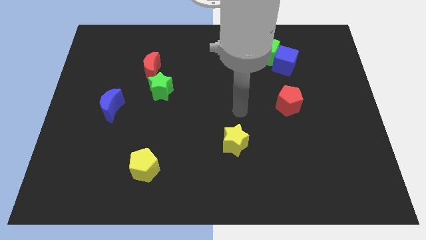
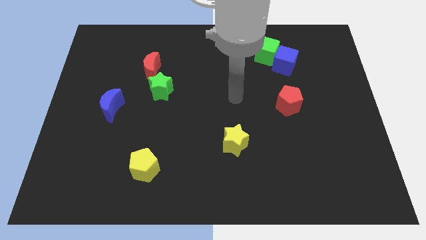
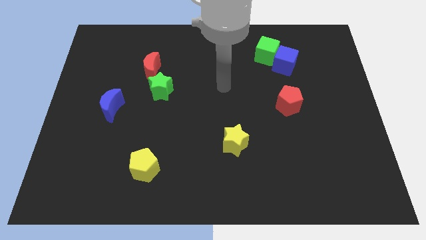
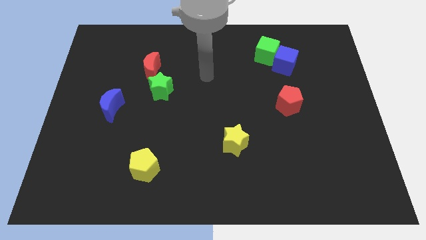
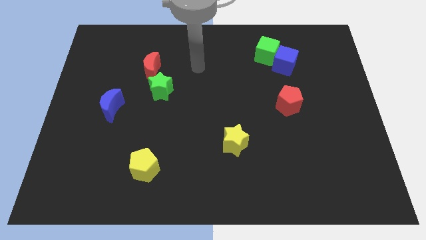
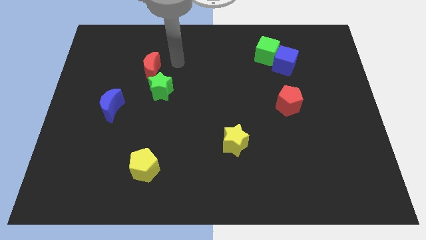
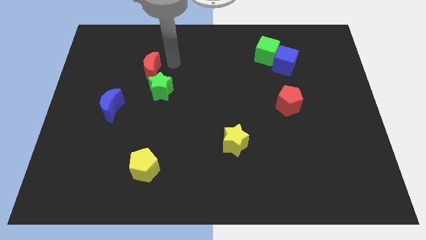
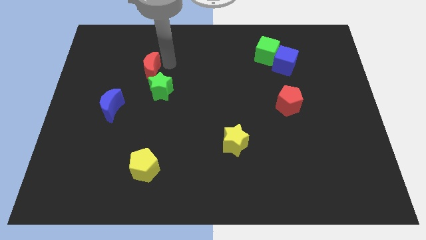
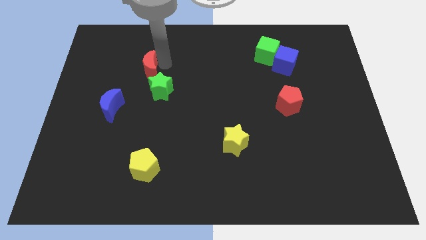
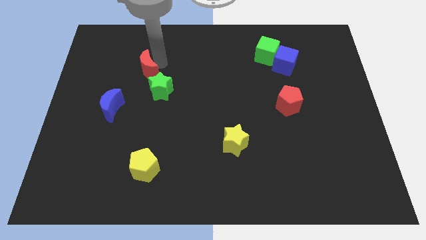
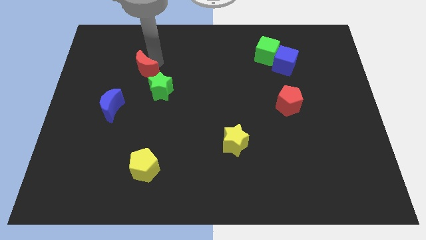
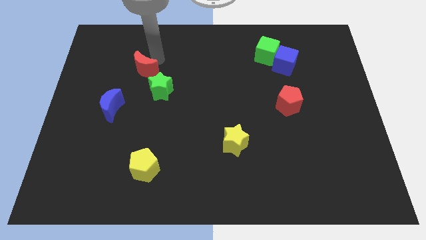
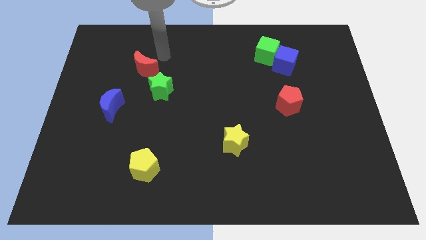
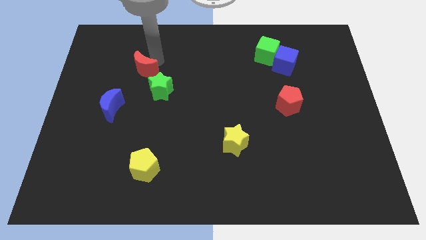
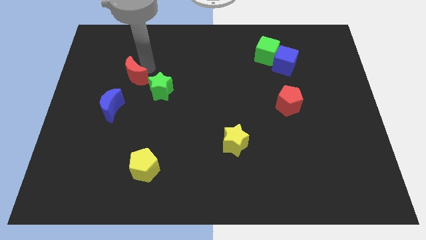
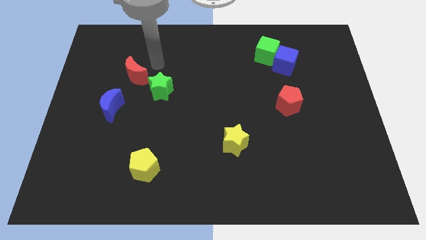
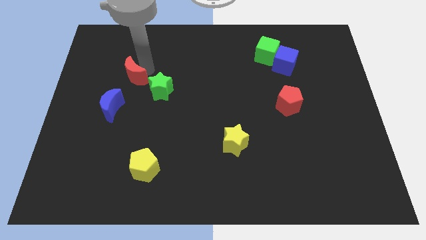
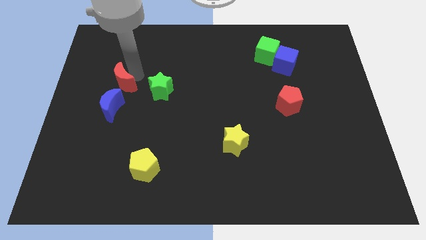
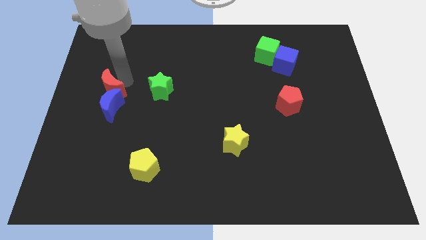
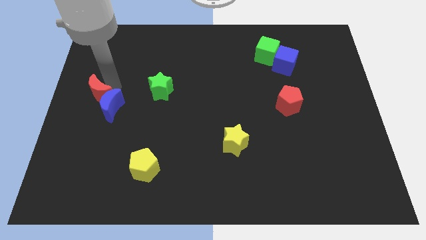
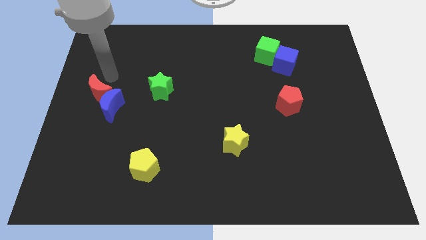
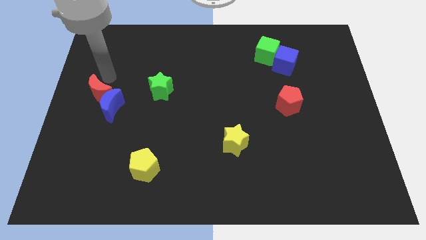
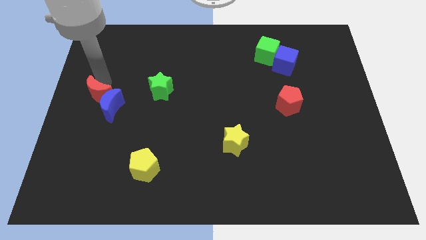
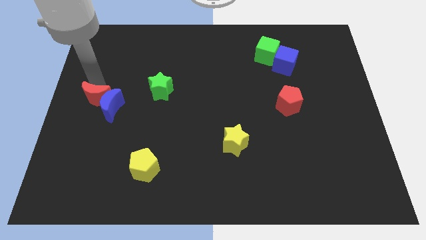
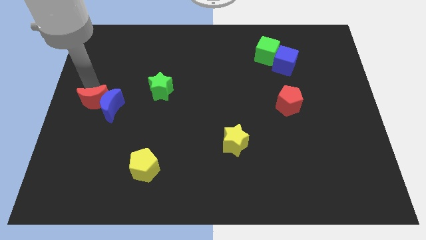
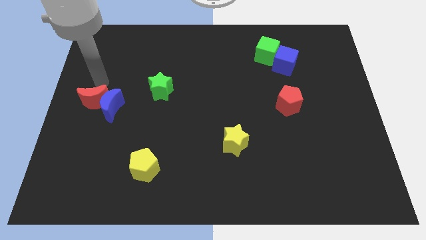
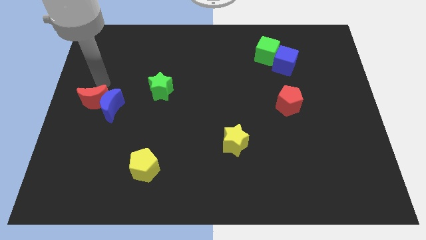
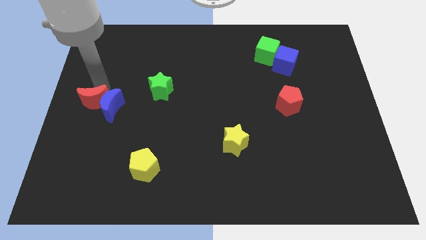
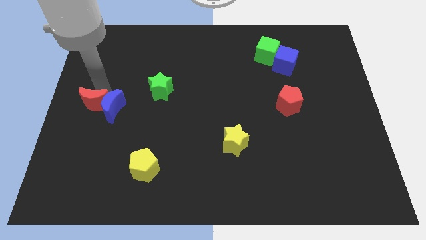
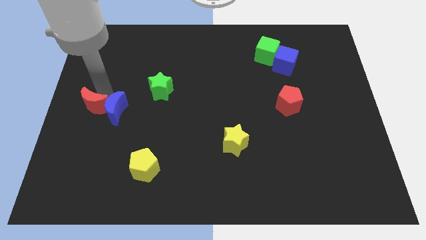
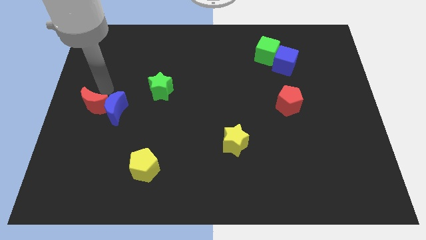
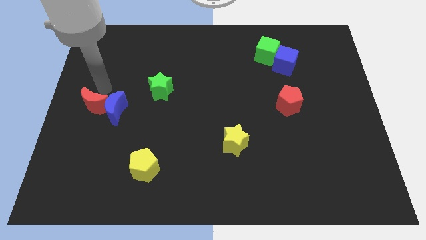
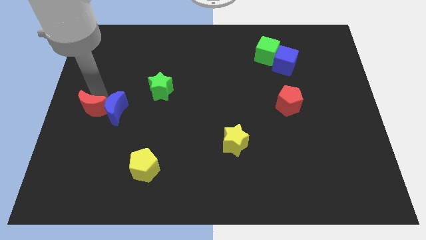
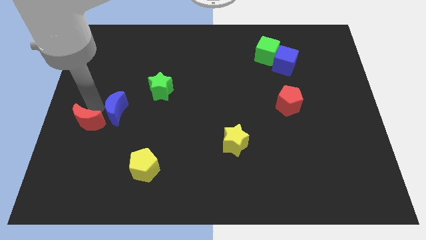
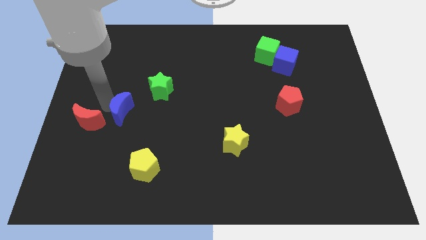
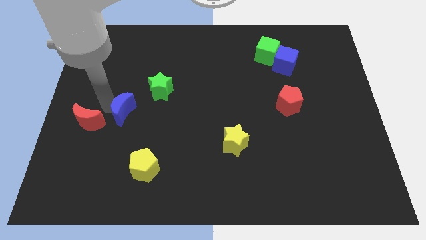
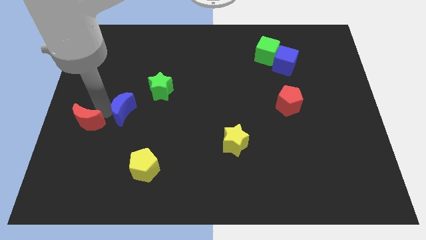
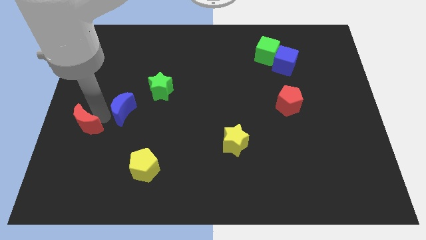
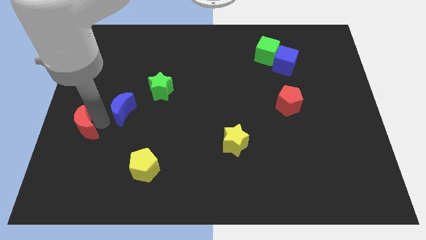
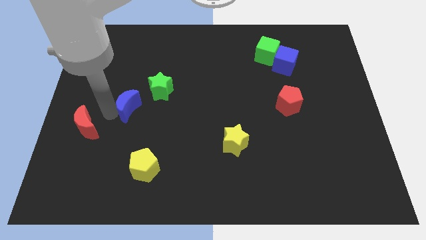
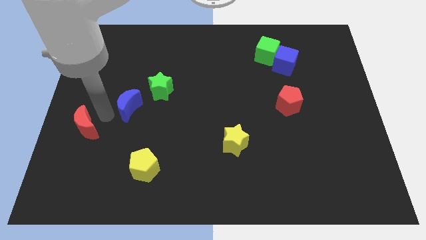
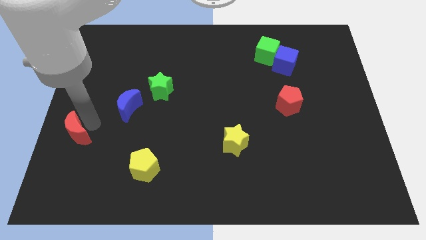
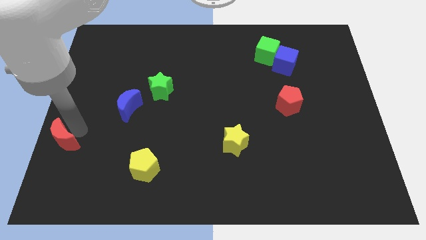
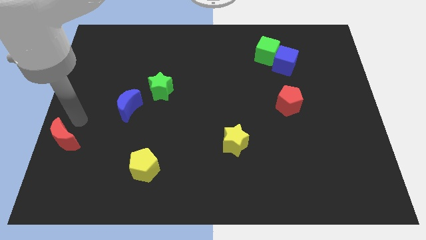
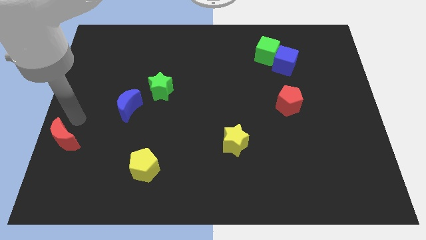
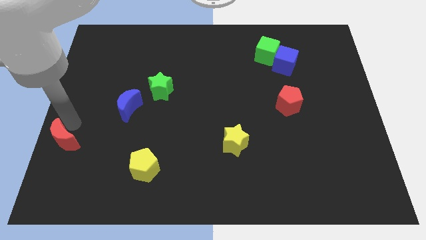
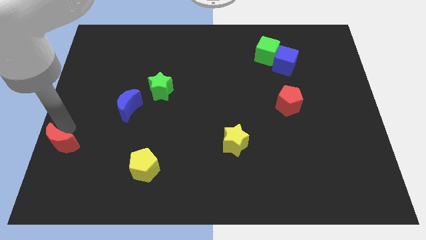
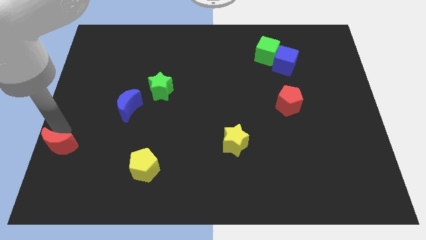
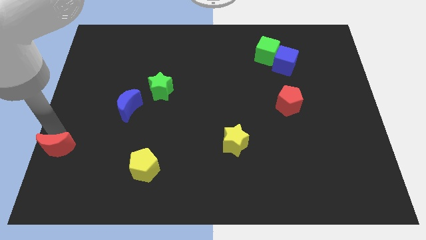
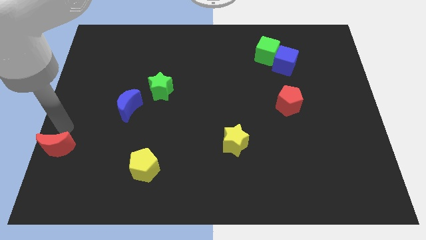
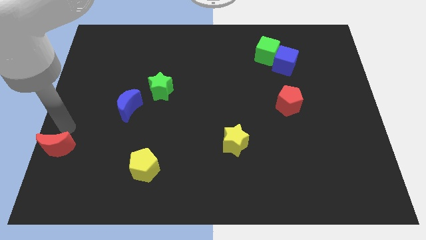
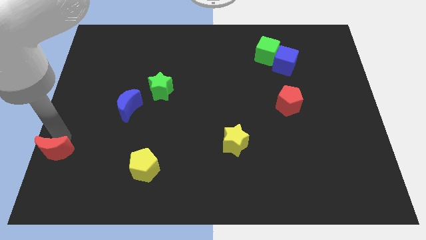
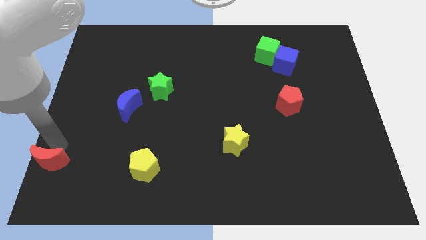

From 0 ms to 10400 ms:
push the red moon to the bottom left of the board

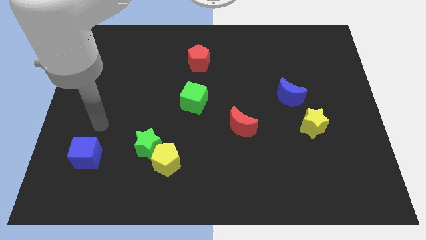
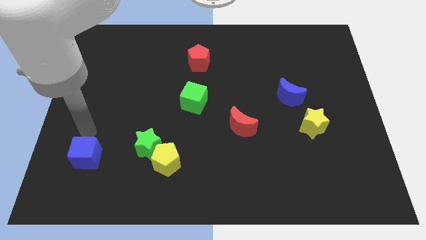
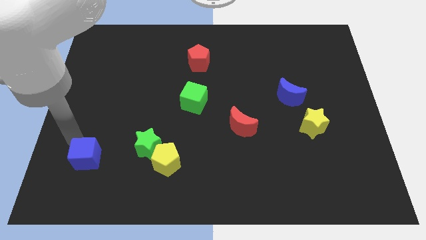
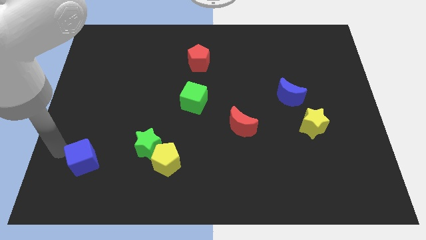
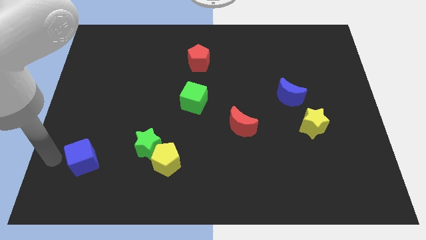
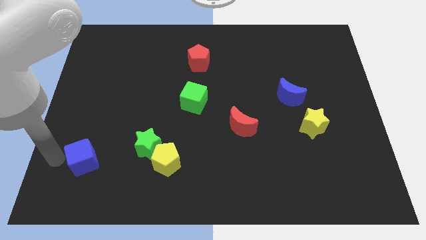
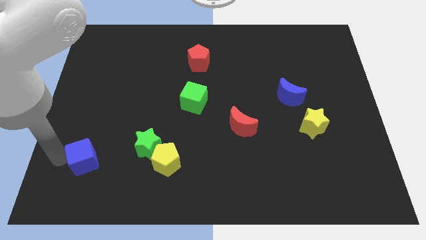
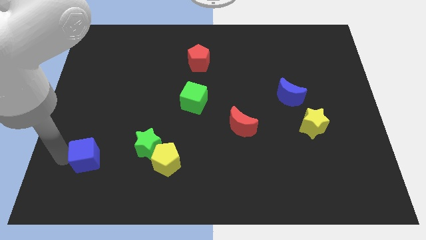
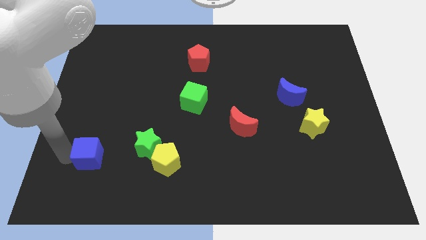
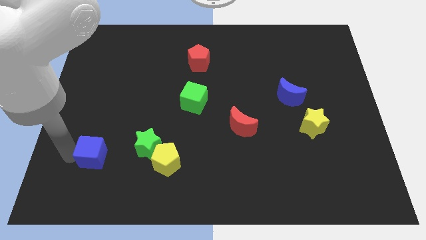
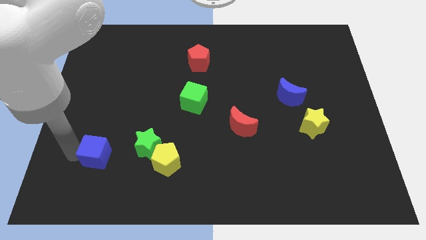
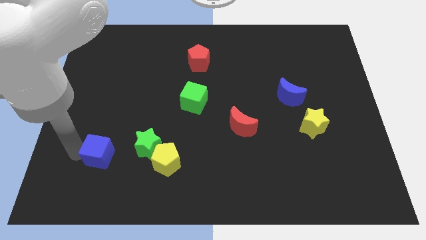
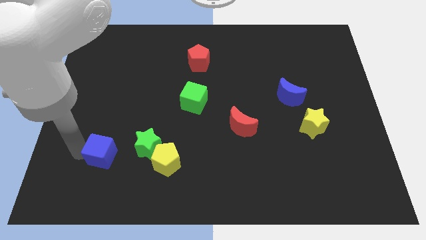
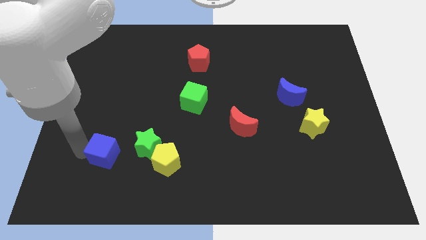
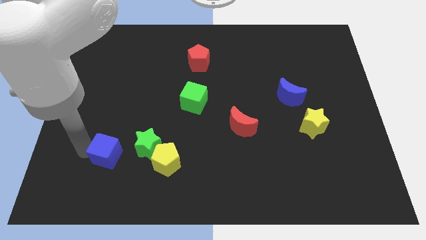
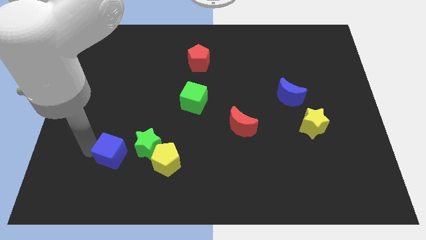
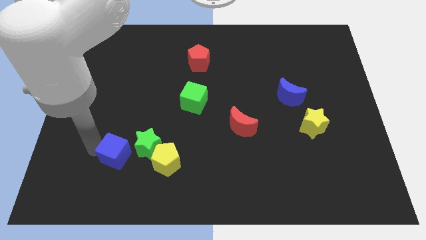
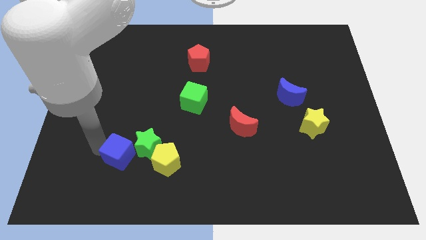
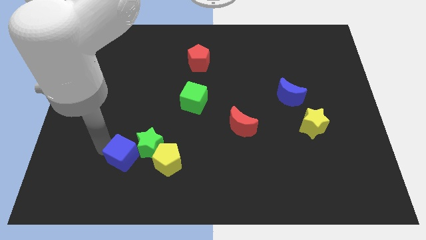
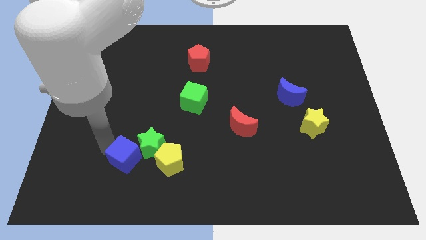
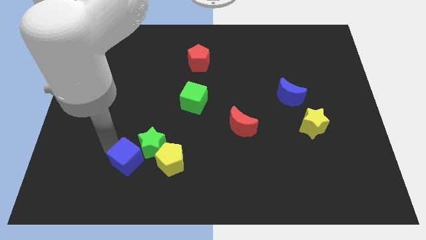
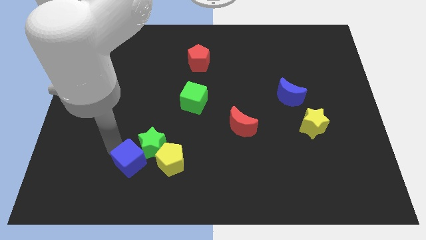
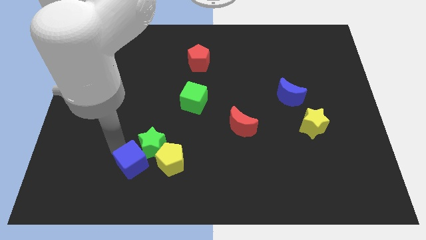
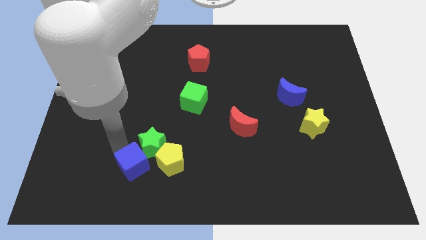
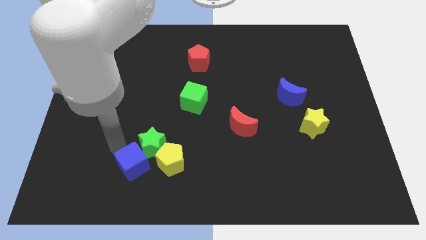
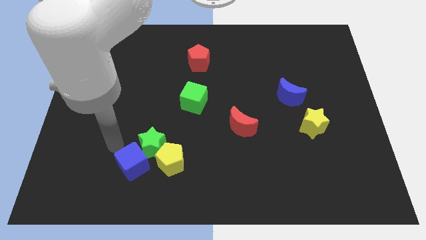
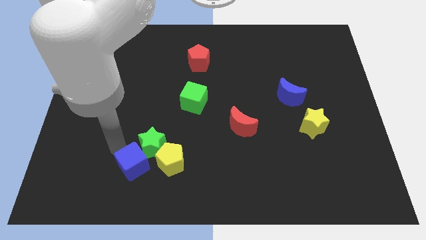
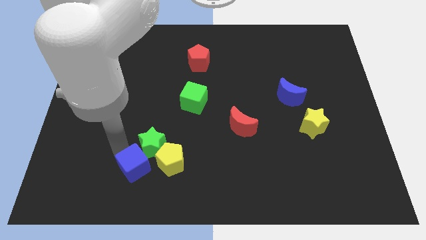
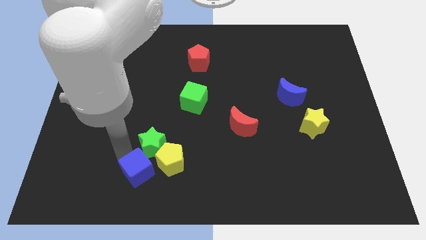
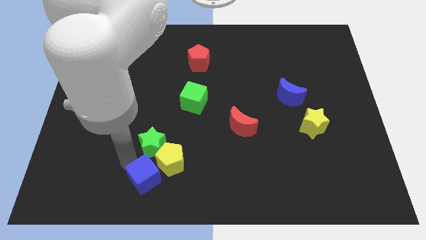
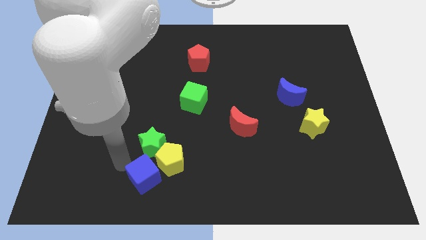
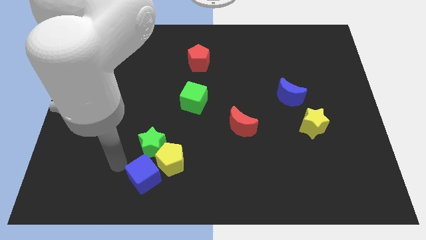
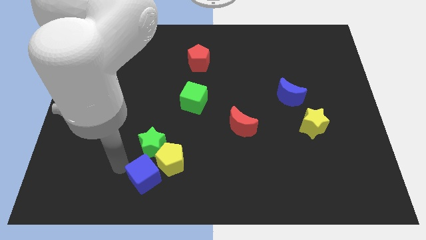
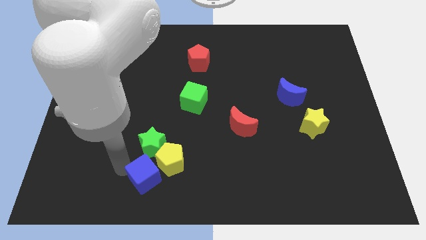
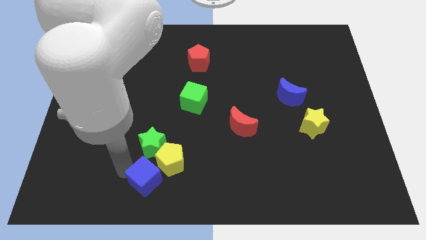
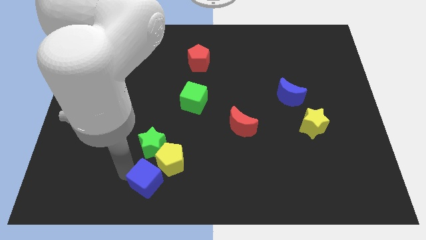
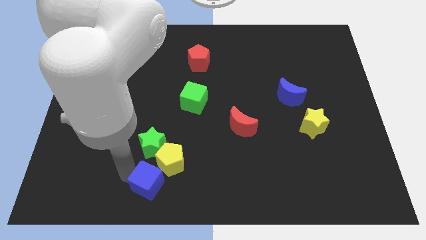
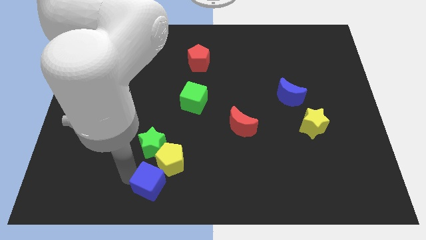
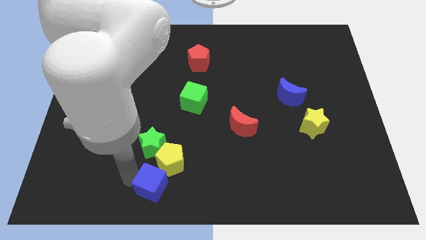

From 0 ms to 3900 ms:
push the blue cube to the bottom side
